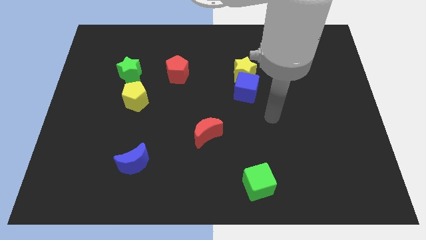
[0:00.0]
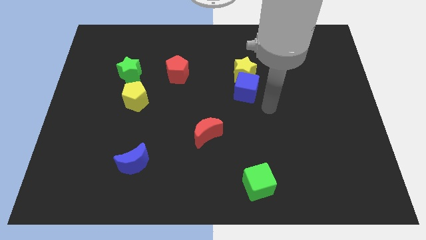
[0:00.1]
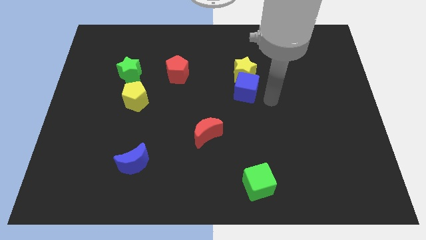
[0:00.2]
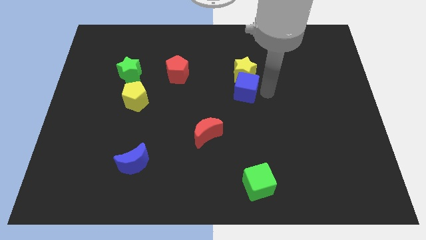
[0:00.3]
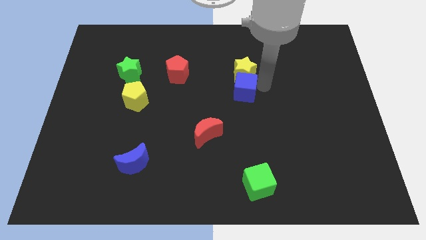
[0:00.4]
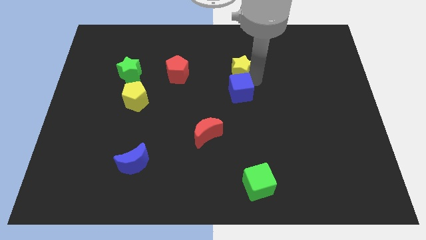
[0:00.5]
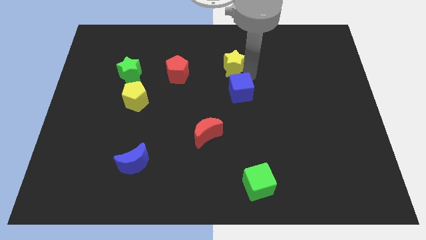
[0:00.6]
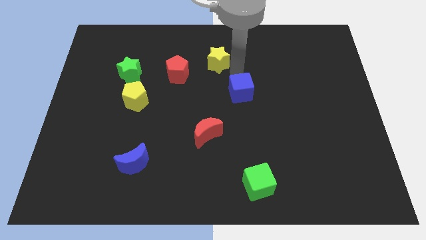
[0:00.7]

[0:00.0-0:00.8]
move the blue cube away from the yellow star

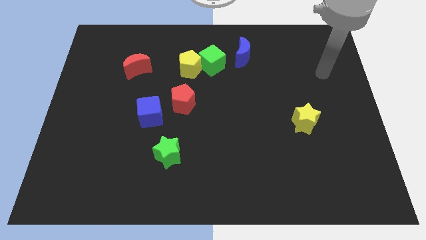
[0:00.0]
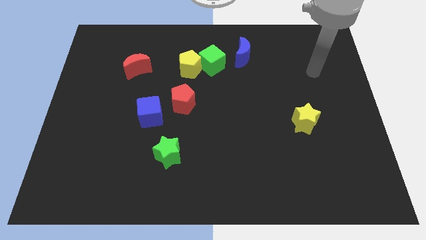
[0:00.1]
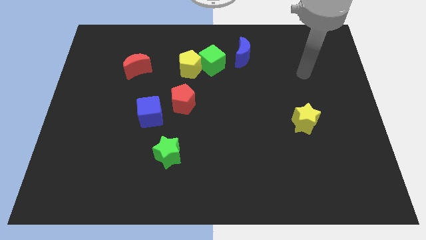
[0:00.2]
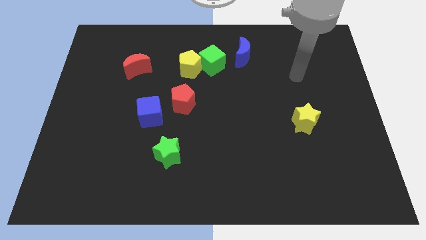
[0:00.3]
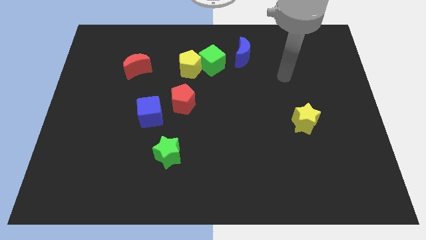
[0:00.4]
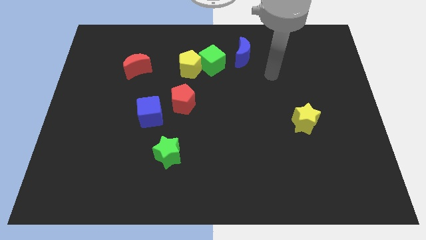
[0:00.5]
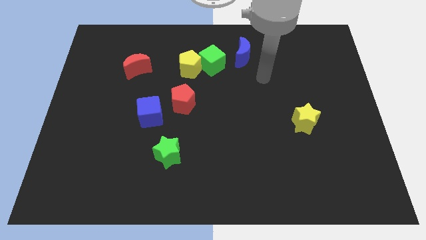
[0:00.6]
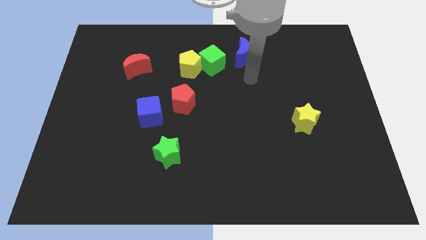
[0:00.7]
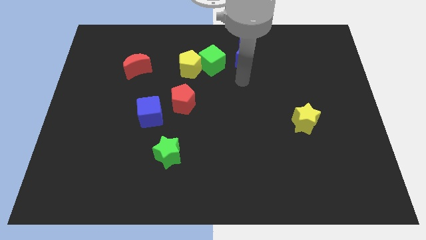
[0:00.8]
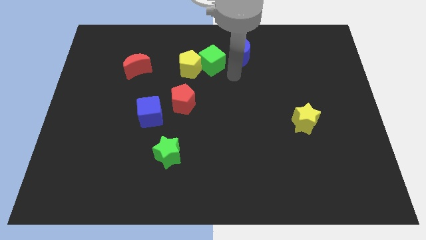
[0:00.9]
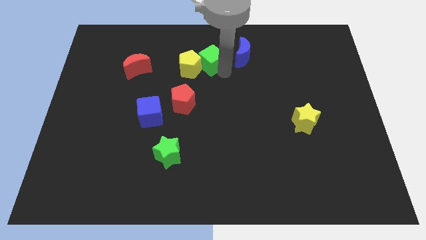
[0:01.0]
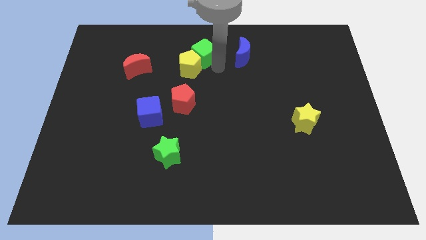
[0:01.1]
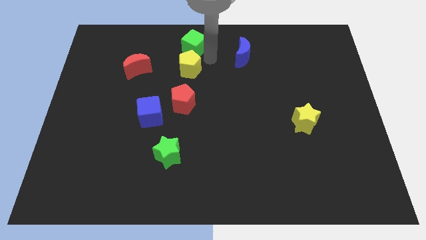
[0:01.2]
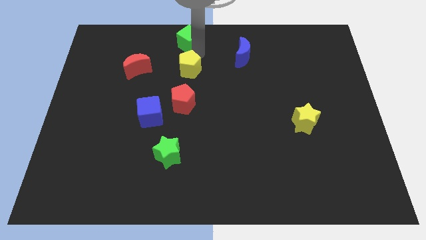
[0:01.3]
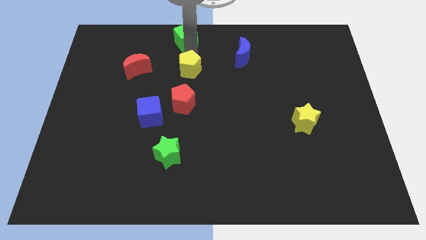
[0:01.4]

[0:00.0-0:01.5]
pull the yellow pentagon apart from the green cube

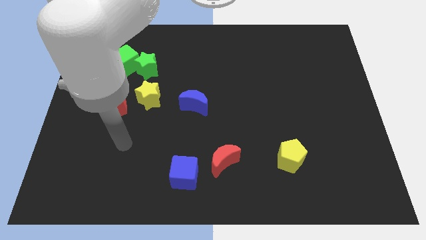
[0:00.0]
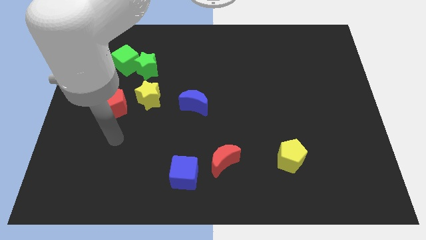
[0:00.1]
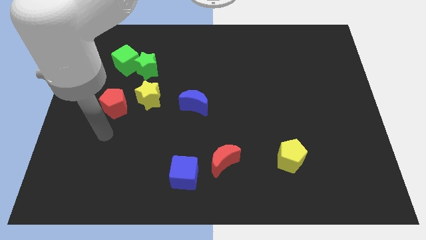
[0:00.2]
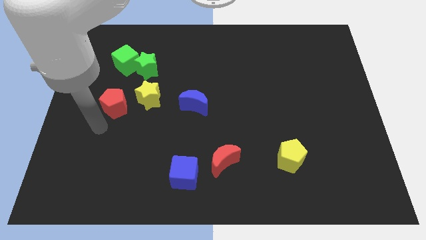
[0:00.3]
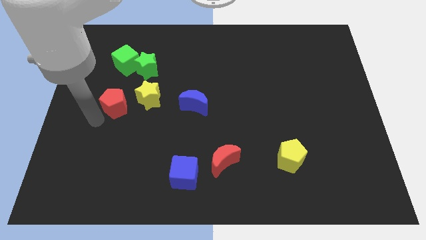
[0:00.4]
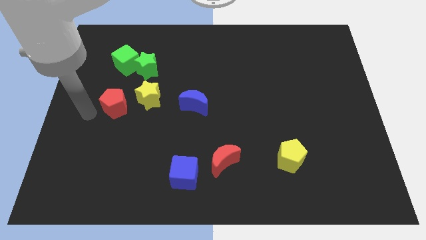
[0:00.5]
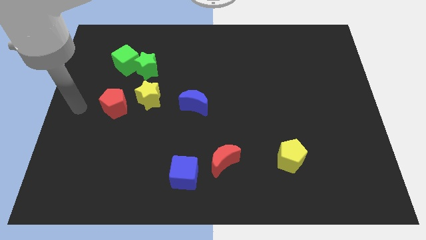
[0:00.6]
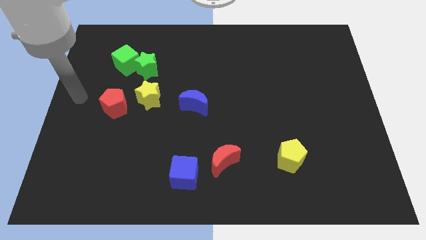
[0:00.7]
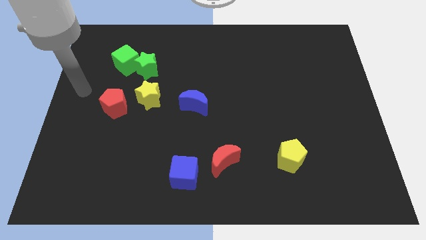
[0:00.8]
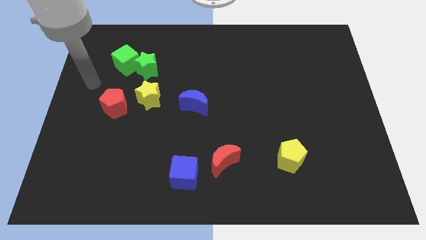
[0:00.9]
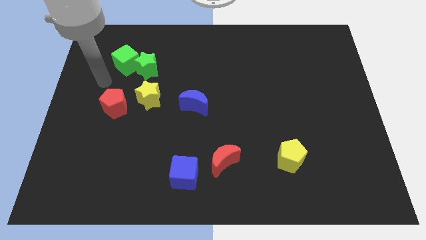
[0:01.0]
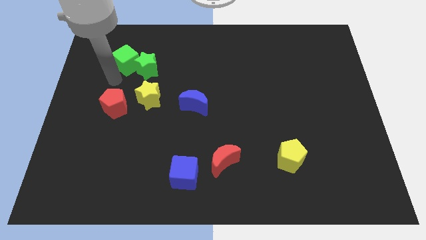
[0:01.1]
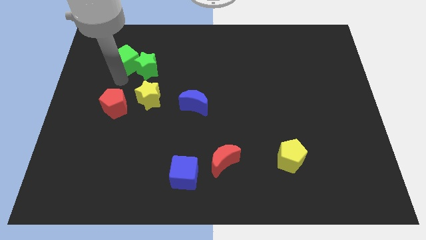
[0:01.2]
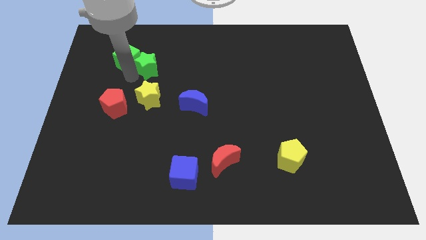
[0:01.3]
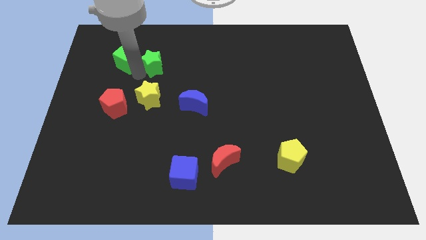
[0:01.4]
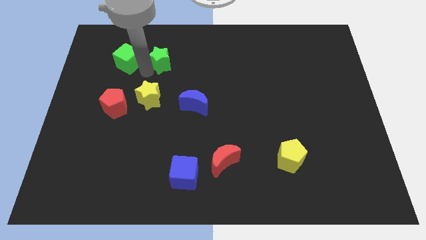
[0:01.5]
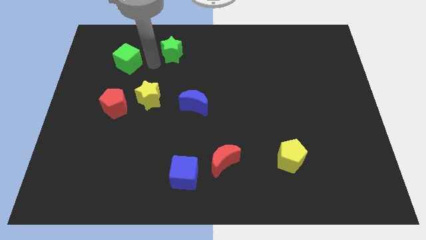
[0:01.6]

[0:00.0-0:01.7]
pull the green cube apart from the green star

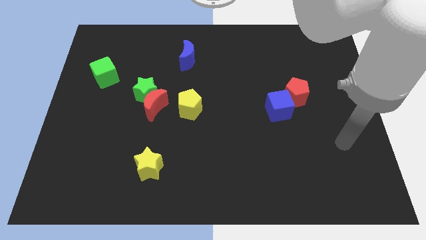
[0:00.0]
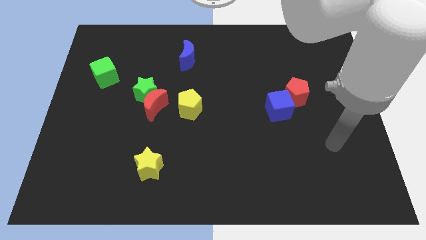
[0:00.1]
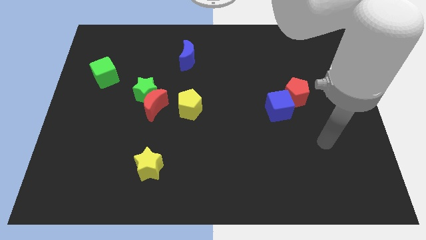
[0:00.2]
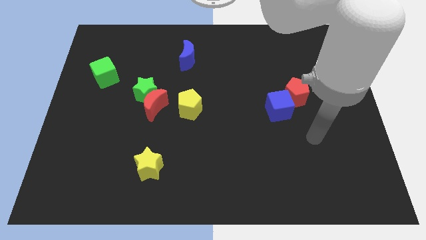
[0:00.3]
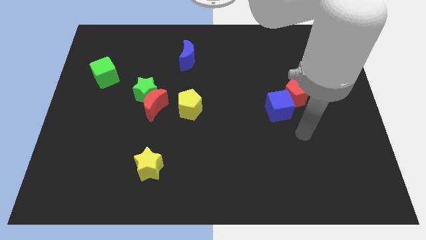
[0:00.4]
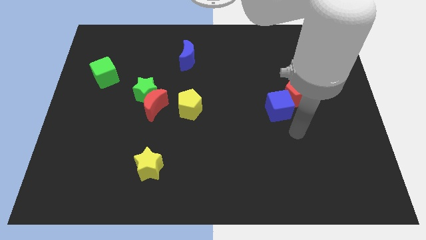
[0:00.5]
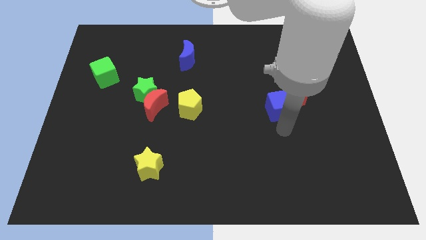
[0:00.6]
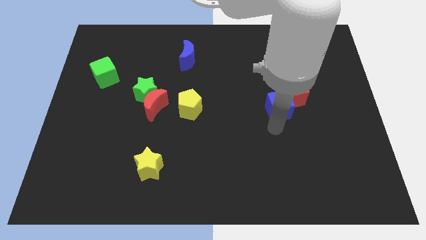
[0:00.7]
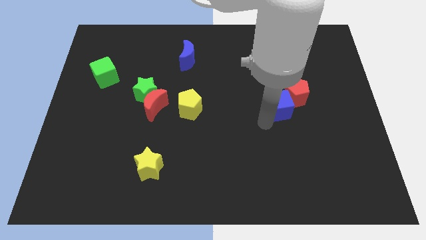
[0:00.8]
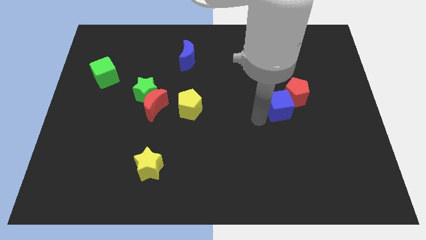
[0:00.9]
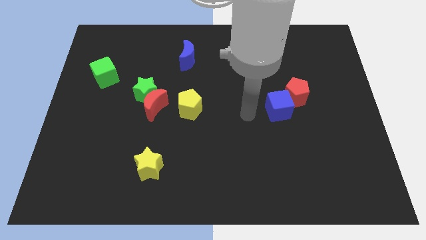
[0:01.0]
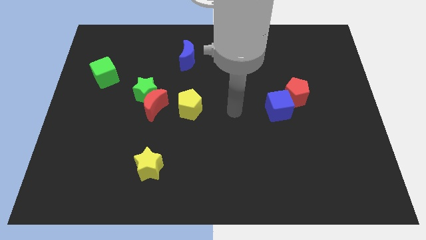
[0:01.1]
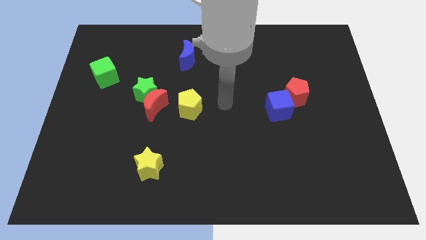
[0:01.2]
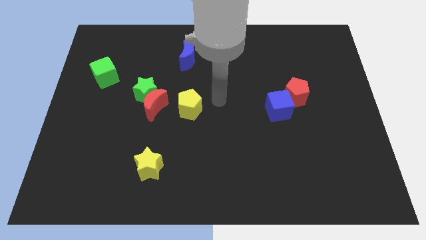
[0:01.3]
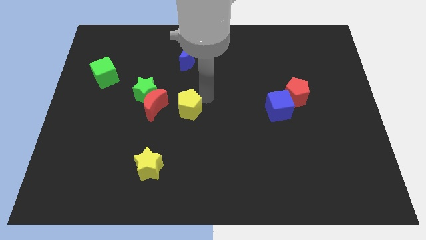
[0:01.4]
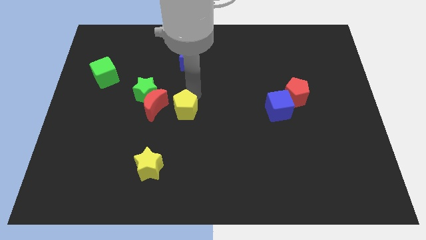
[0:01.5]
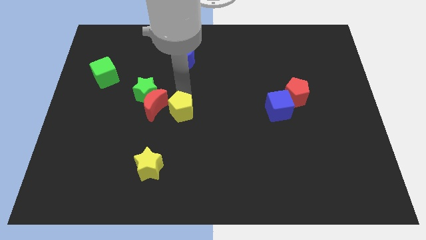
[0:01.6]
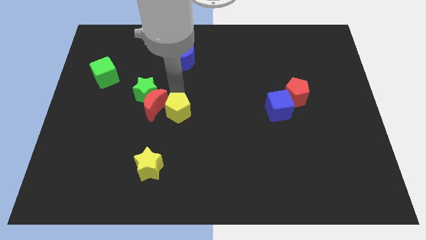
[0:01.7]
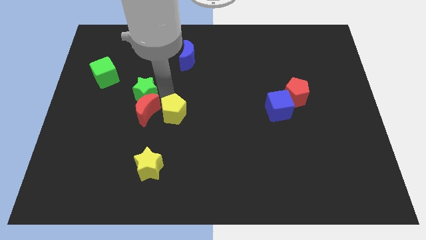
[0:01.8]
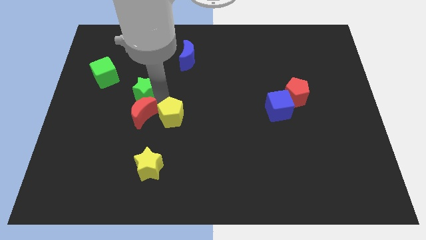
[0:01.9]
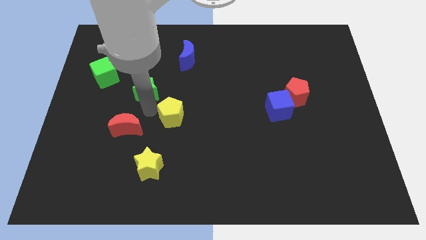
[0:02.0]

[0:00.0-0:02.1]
separate the green star from the red moon

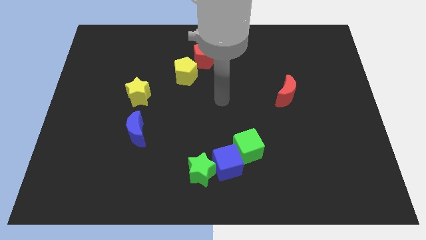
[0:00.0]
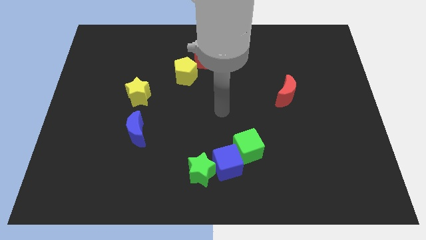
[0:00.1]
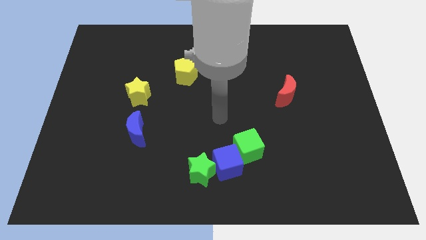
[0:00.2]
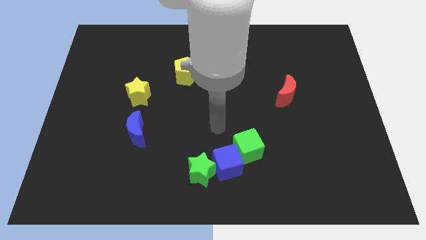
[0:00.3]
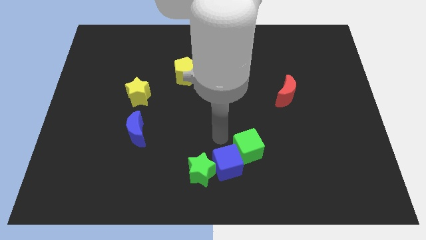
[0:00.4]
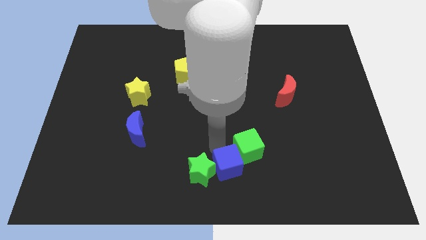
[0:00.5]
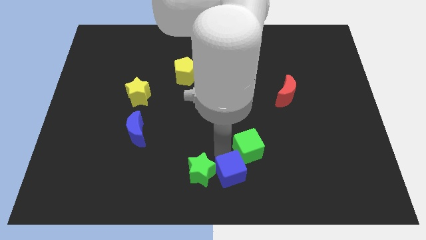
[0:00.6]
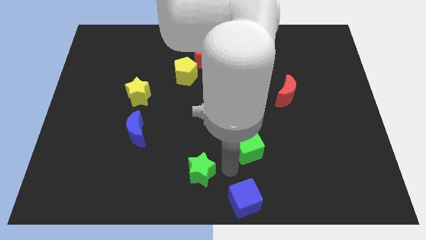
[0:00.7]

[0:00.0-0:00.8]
separate the green cube from the blue cube

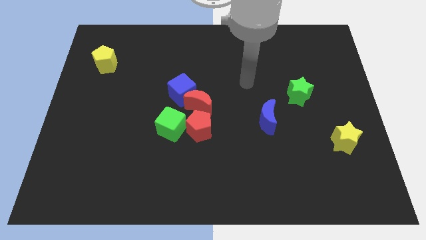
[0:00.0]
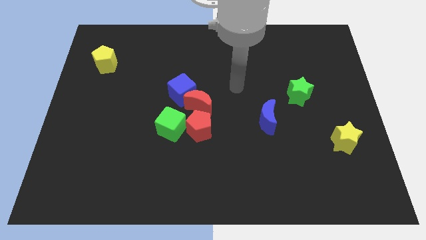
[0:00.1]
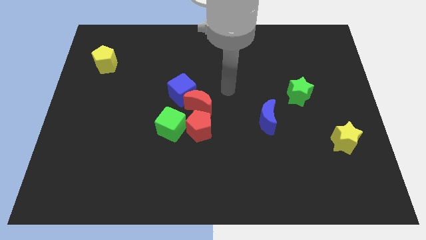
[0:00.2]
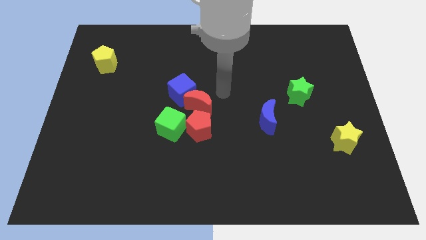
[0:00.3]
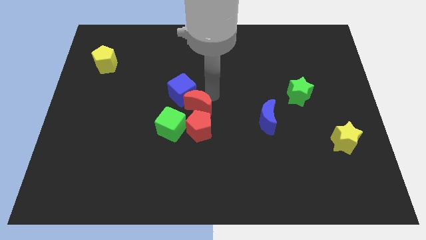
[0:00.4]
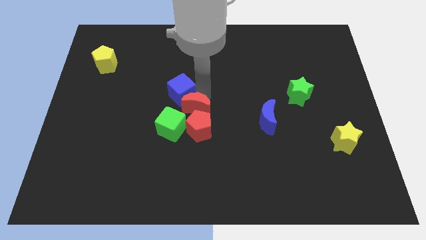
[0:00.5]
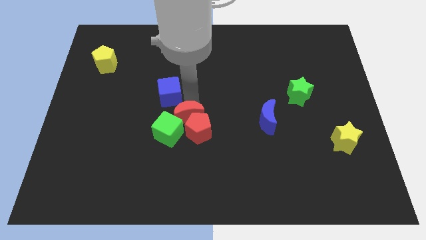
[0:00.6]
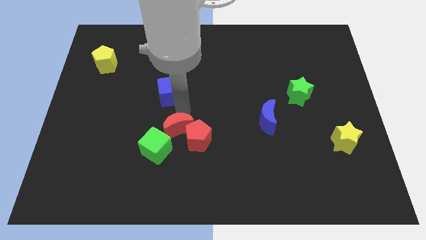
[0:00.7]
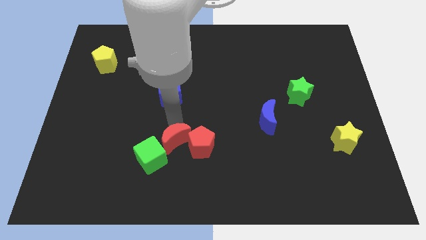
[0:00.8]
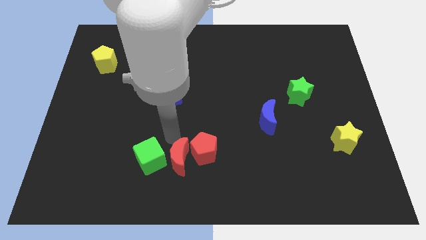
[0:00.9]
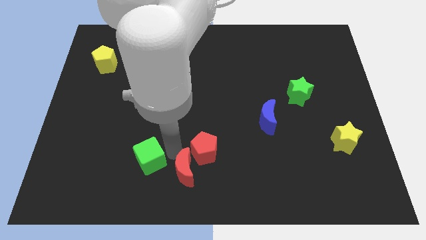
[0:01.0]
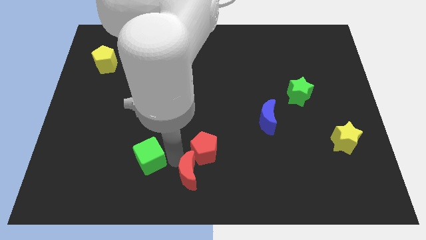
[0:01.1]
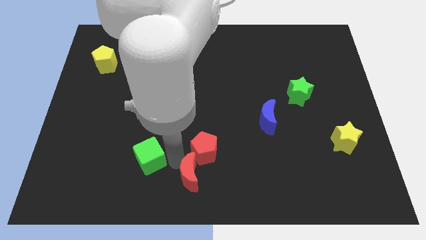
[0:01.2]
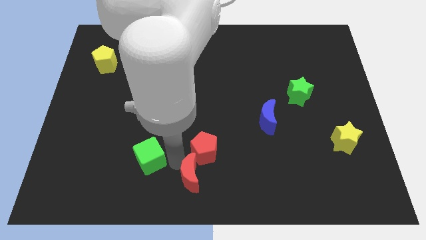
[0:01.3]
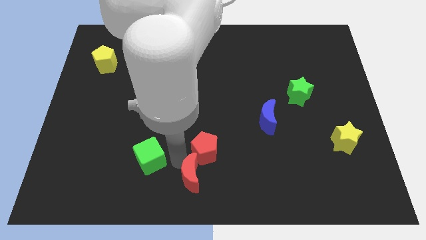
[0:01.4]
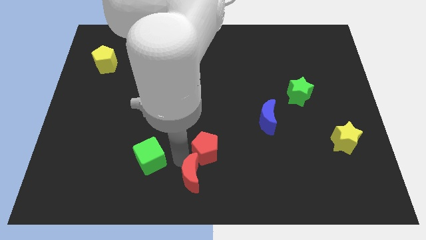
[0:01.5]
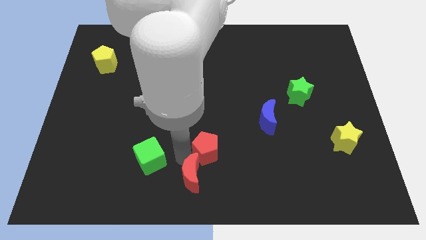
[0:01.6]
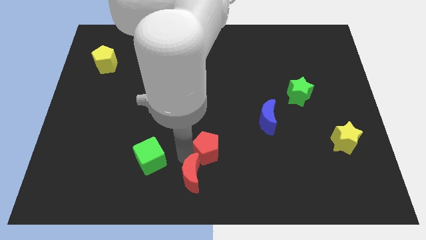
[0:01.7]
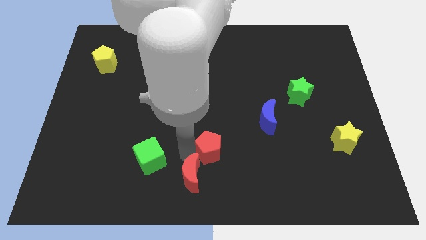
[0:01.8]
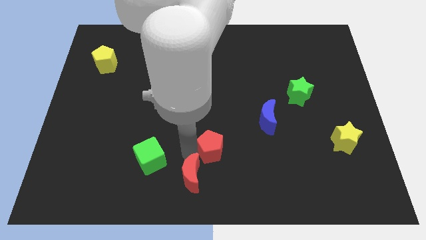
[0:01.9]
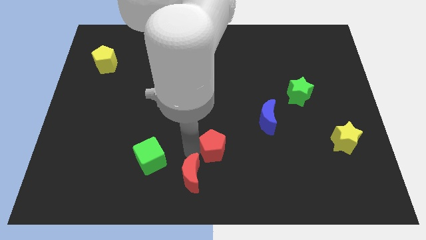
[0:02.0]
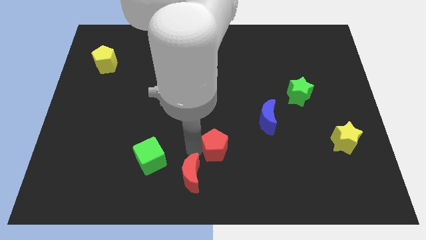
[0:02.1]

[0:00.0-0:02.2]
pull the red pentagon apart from the green cube and red moon

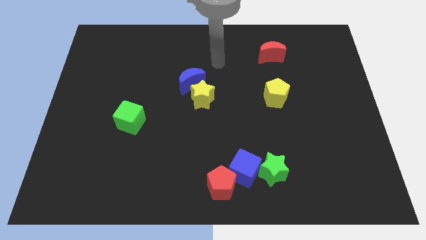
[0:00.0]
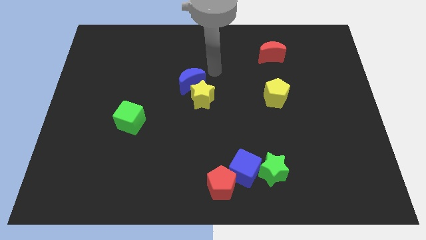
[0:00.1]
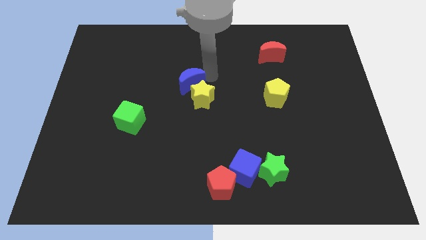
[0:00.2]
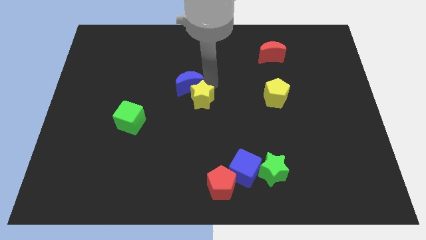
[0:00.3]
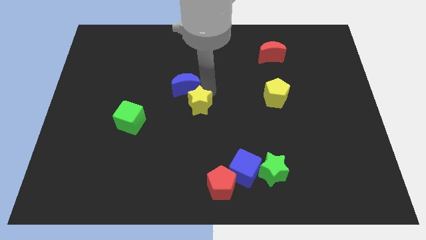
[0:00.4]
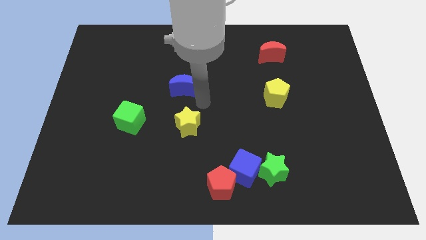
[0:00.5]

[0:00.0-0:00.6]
separate the blue moon from the yellow star
